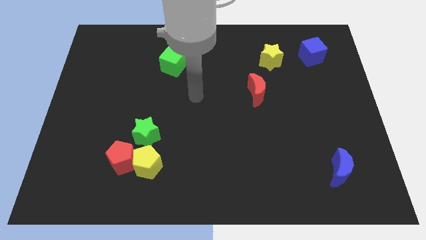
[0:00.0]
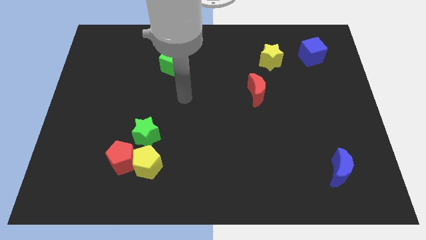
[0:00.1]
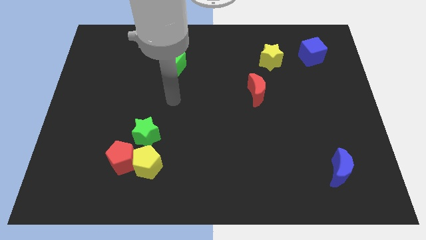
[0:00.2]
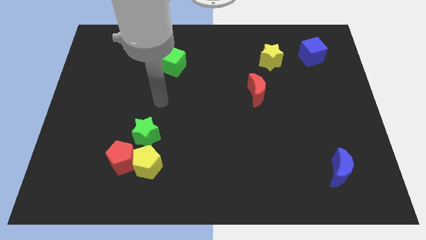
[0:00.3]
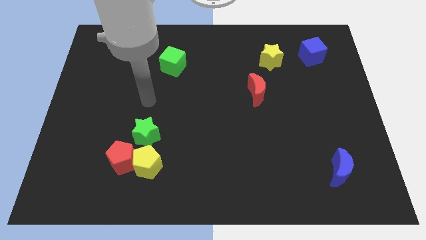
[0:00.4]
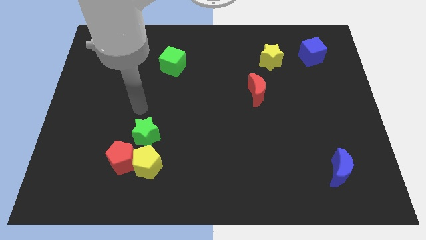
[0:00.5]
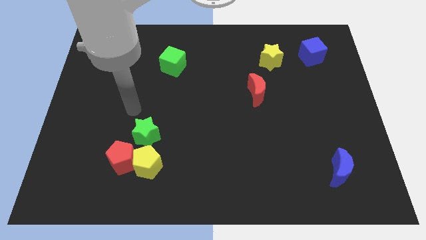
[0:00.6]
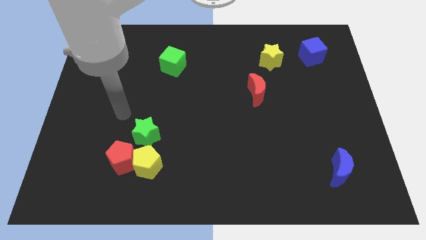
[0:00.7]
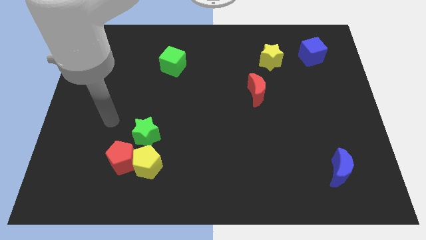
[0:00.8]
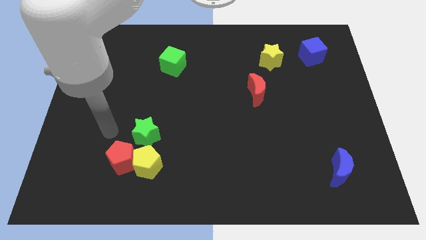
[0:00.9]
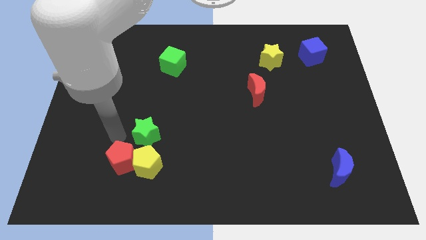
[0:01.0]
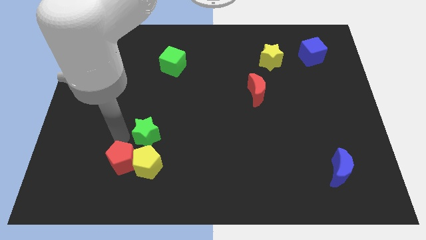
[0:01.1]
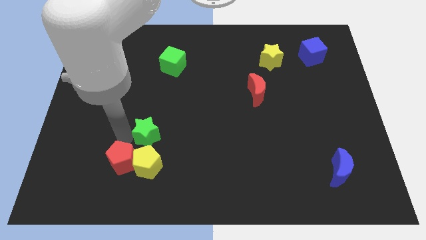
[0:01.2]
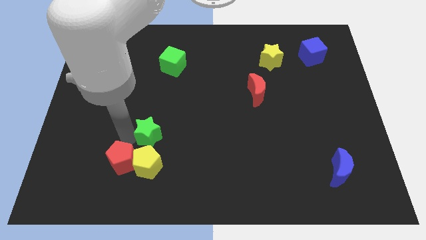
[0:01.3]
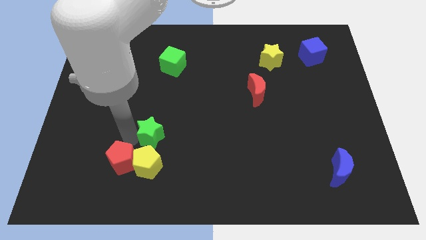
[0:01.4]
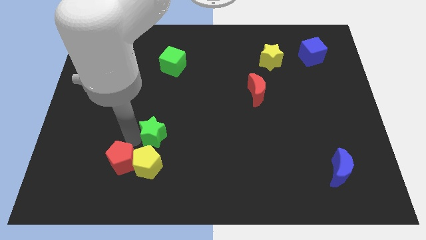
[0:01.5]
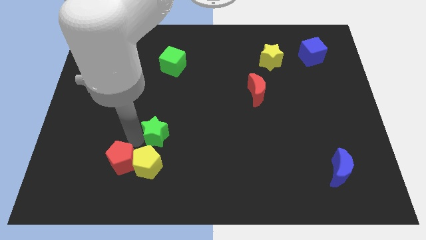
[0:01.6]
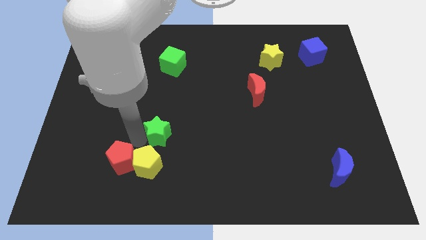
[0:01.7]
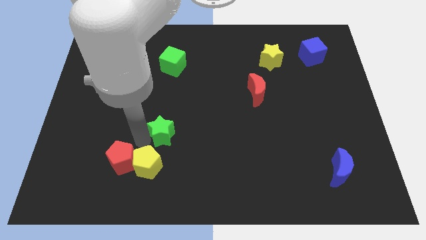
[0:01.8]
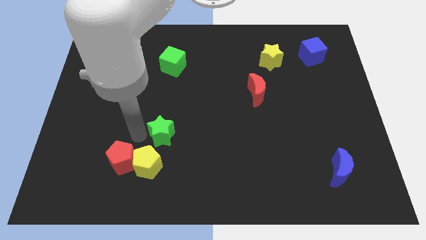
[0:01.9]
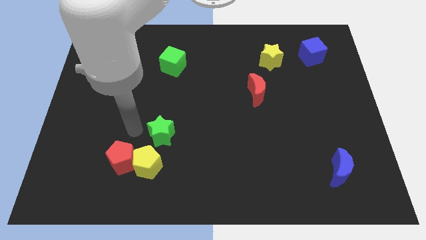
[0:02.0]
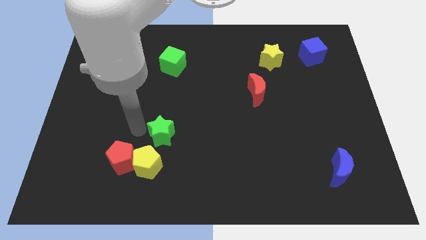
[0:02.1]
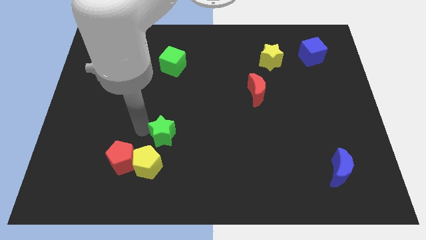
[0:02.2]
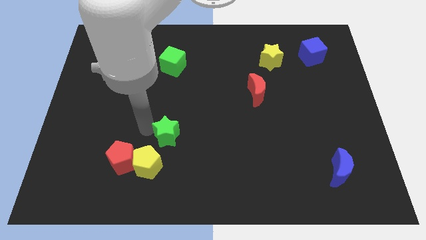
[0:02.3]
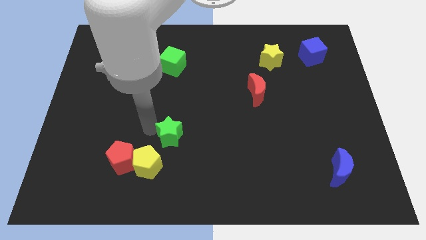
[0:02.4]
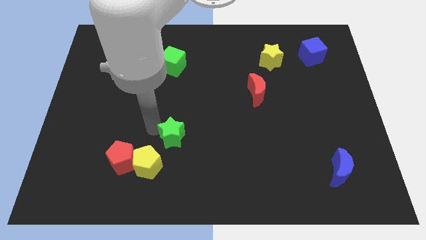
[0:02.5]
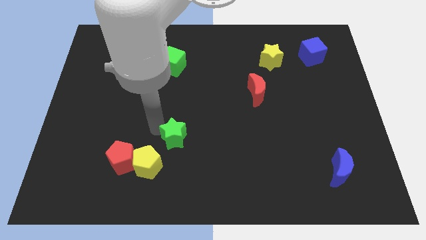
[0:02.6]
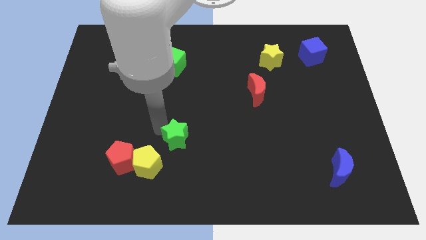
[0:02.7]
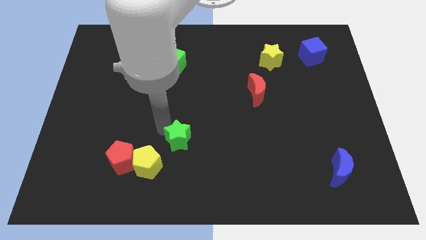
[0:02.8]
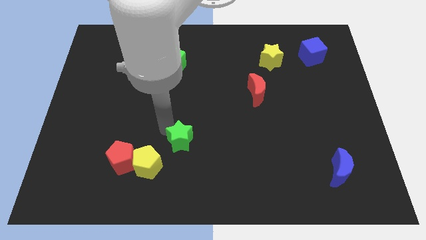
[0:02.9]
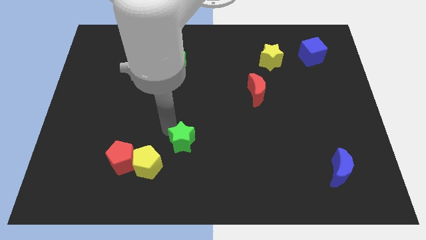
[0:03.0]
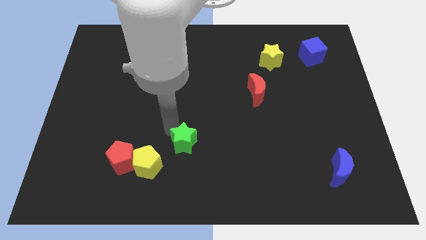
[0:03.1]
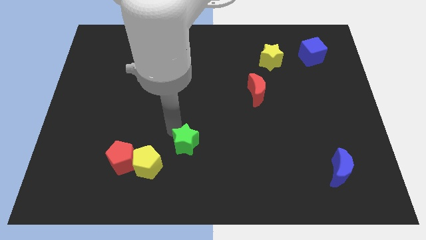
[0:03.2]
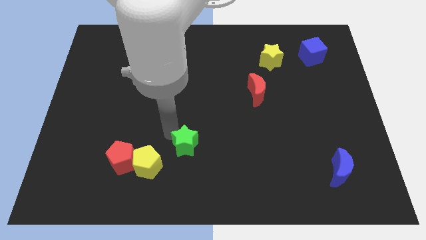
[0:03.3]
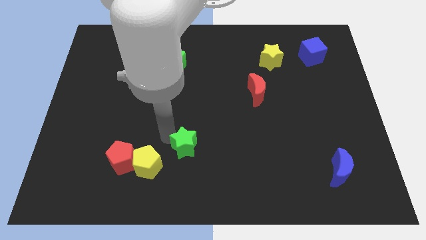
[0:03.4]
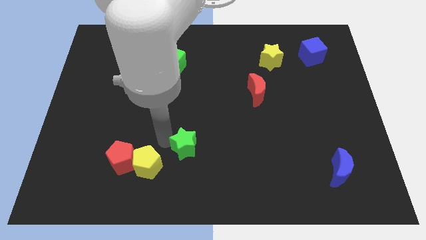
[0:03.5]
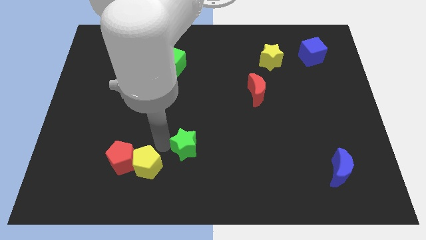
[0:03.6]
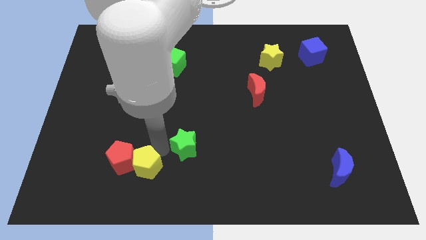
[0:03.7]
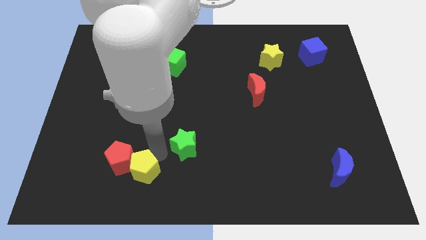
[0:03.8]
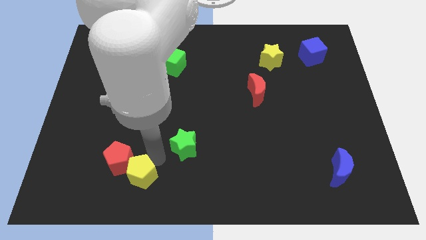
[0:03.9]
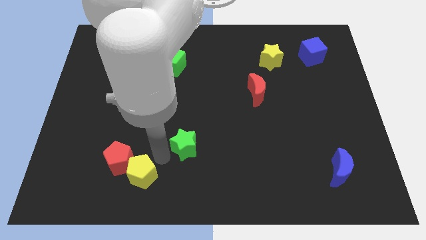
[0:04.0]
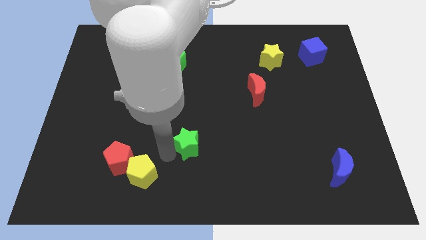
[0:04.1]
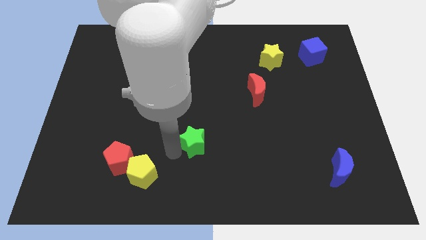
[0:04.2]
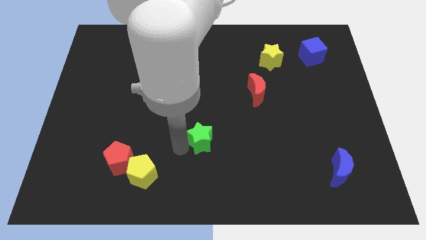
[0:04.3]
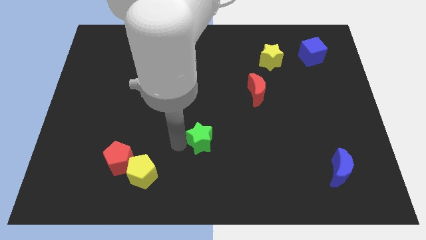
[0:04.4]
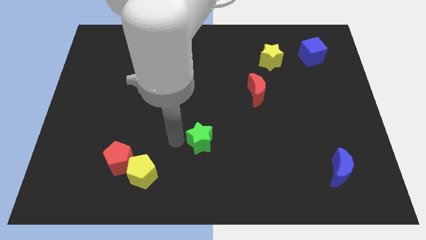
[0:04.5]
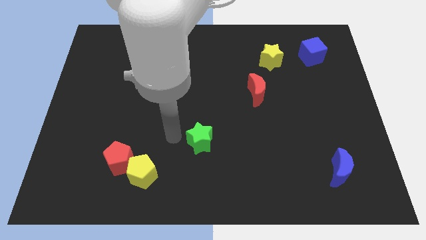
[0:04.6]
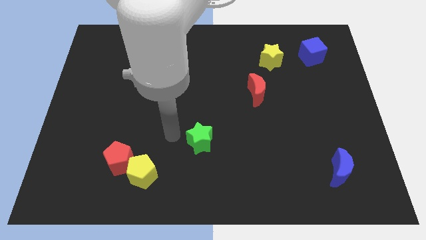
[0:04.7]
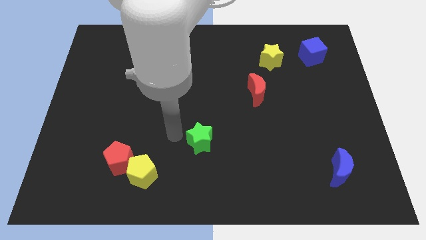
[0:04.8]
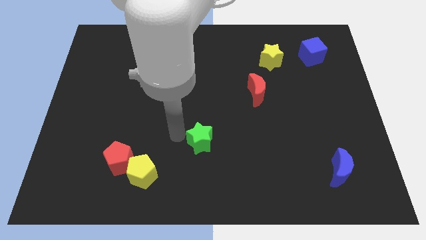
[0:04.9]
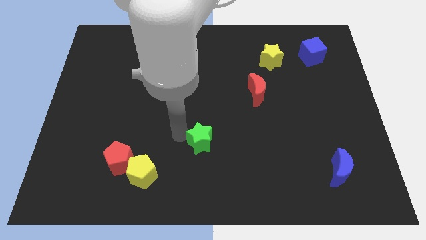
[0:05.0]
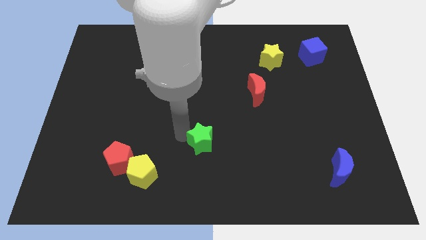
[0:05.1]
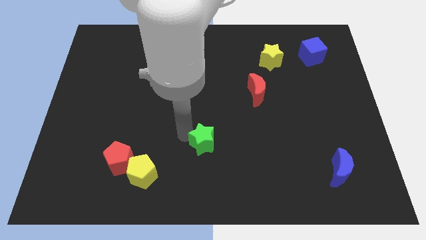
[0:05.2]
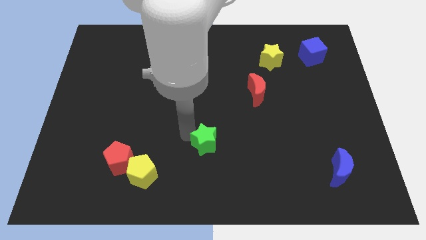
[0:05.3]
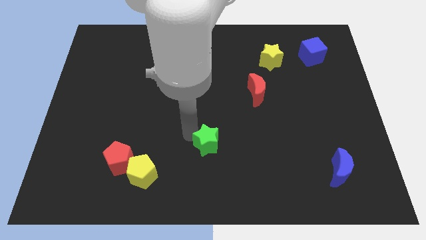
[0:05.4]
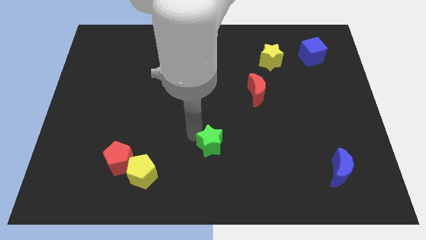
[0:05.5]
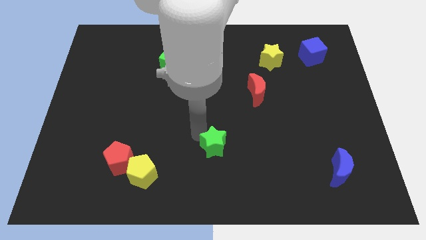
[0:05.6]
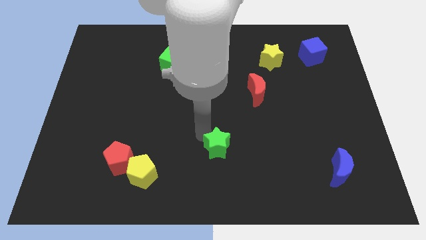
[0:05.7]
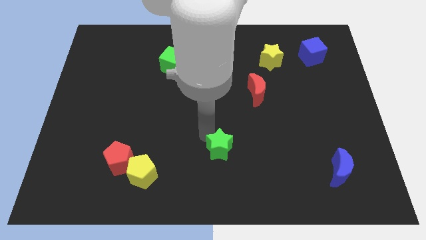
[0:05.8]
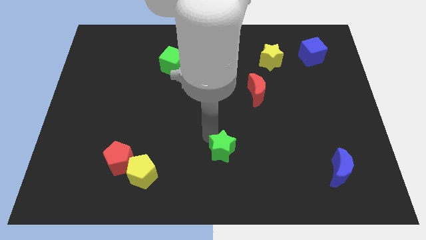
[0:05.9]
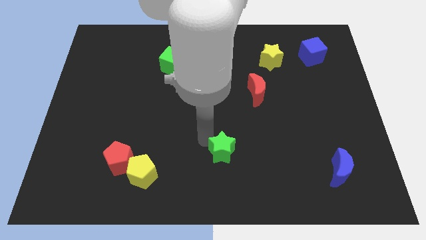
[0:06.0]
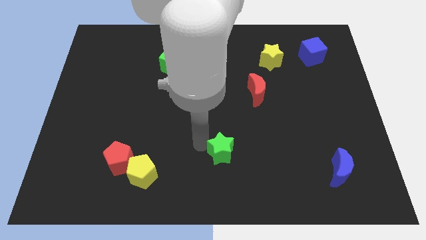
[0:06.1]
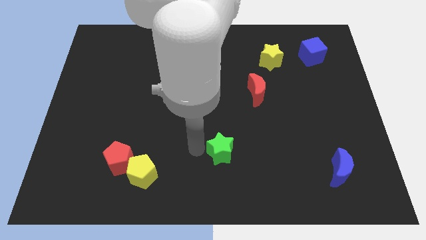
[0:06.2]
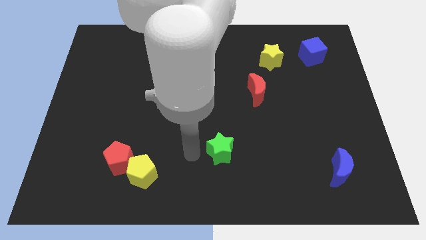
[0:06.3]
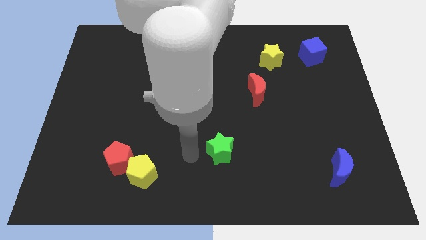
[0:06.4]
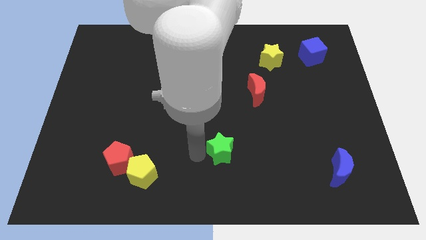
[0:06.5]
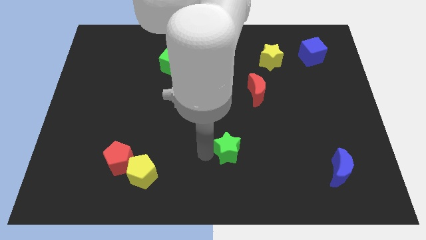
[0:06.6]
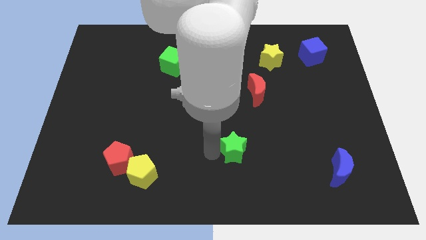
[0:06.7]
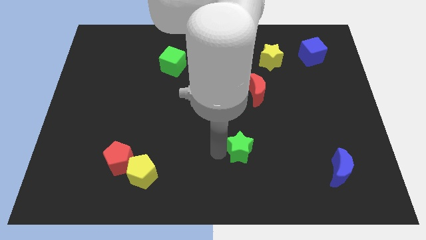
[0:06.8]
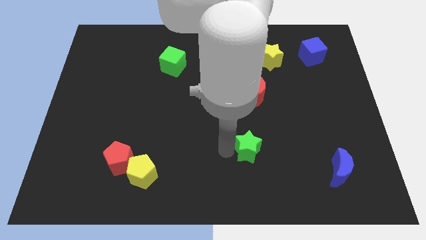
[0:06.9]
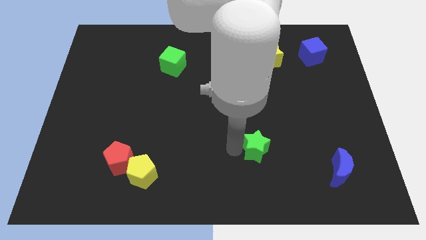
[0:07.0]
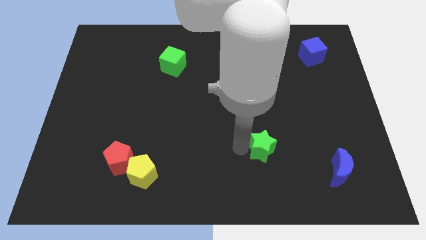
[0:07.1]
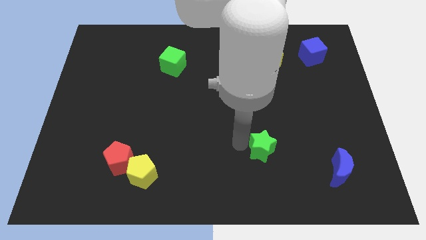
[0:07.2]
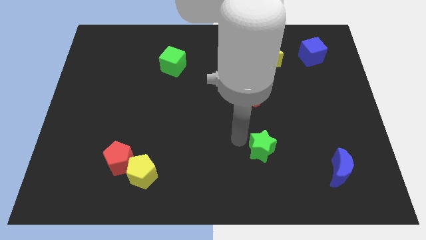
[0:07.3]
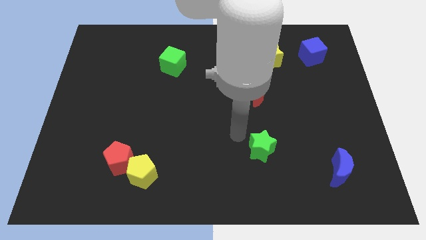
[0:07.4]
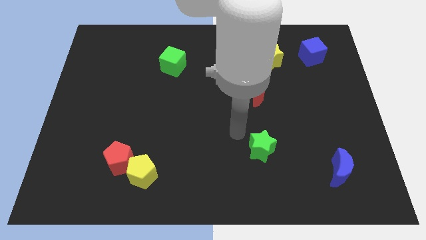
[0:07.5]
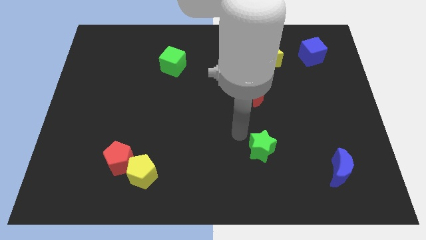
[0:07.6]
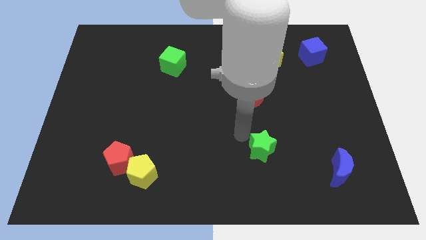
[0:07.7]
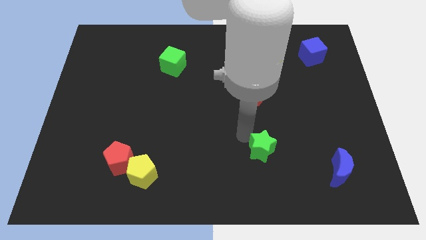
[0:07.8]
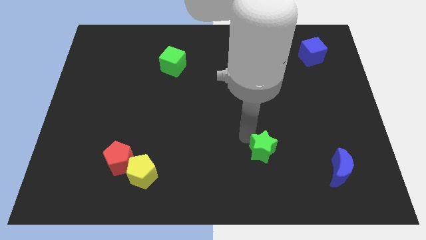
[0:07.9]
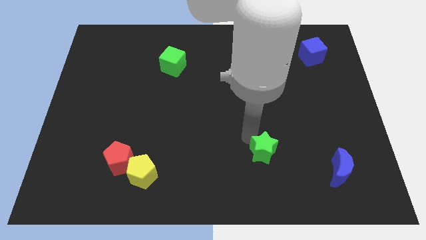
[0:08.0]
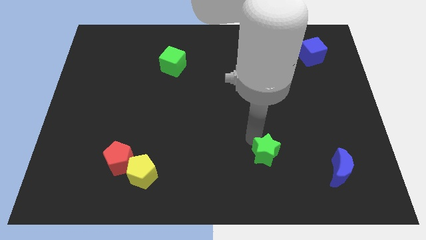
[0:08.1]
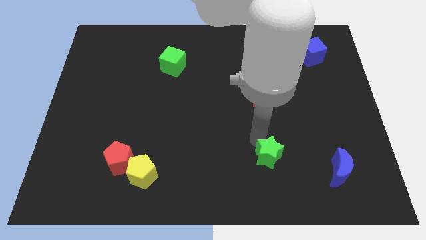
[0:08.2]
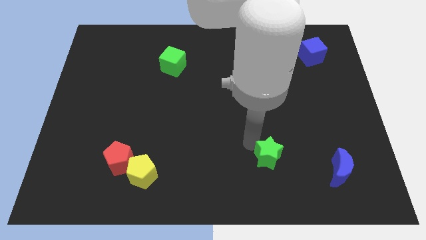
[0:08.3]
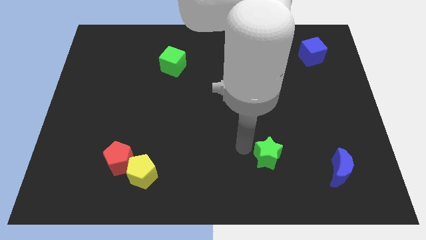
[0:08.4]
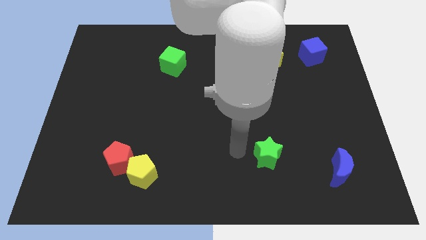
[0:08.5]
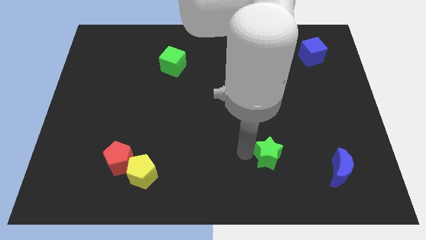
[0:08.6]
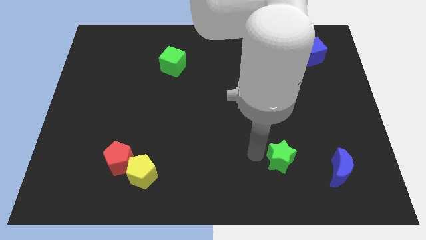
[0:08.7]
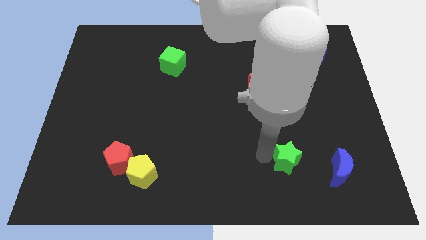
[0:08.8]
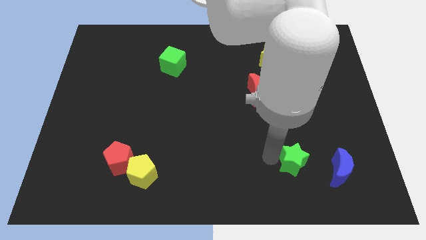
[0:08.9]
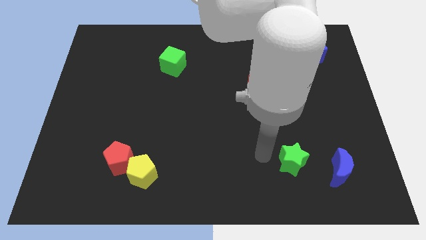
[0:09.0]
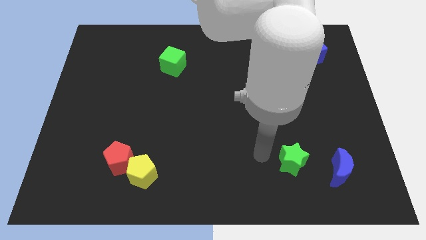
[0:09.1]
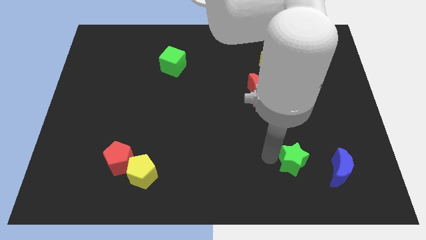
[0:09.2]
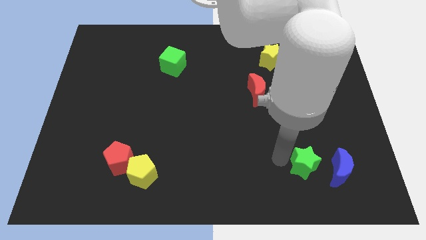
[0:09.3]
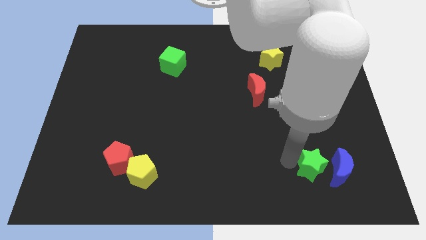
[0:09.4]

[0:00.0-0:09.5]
push the green star next to the blue moon
